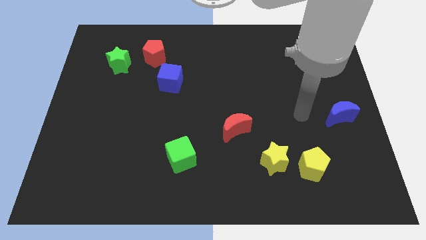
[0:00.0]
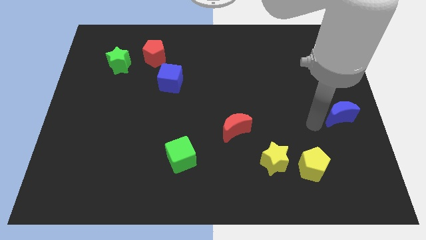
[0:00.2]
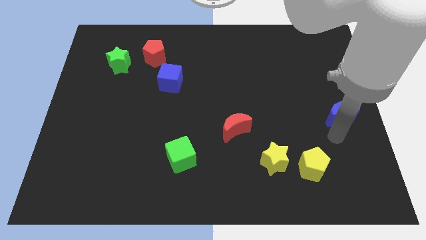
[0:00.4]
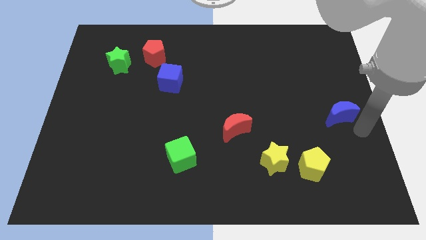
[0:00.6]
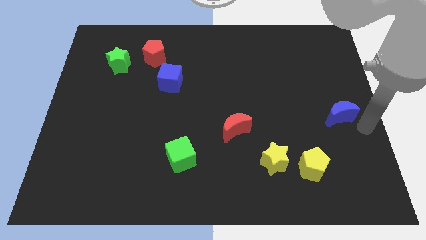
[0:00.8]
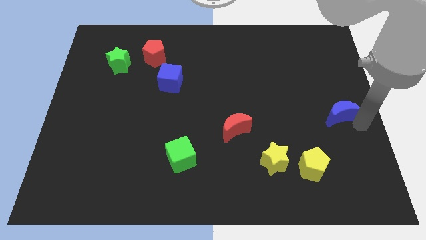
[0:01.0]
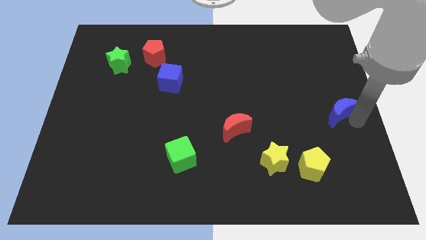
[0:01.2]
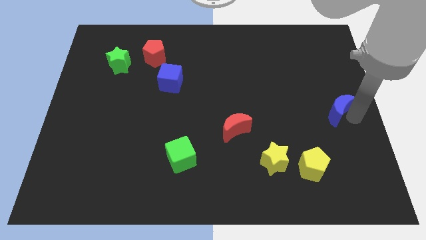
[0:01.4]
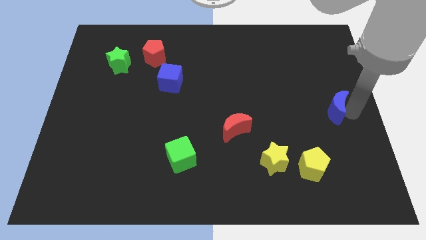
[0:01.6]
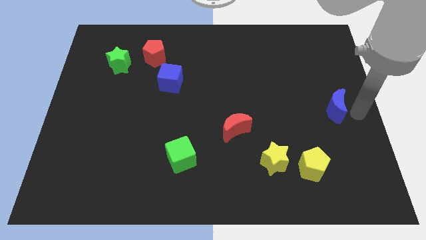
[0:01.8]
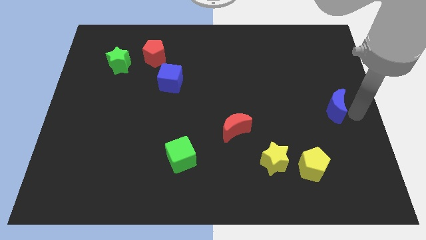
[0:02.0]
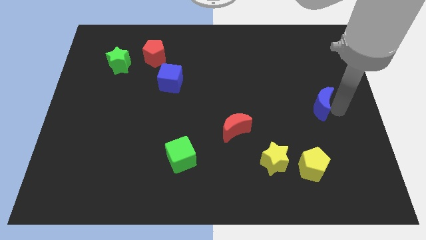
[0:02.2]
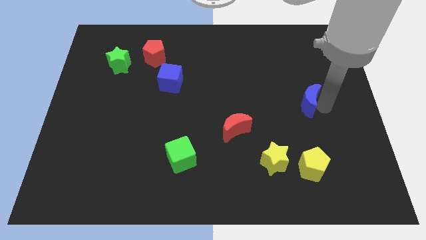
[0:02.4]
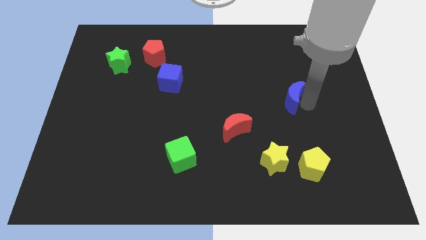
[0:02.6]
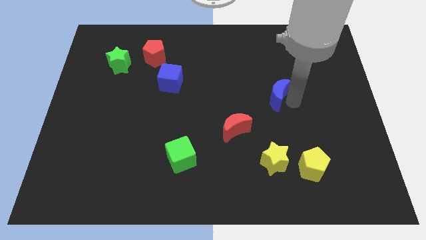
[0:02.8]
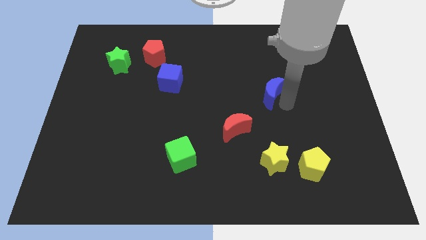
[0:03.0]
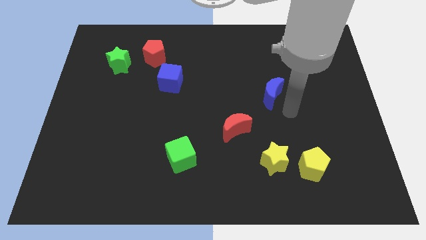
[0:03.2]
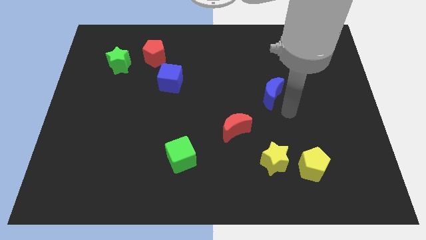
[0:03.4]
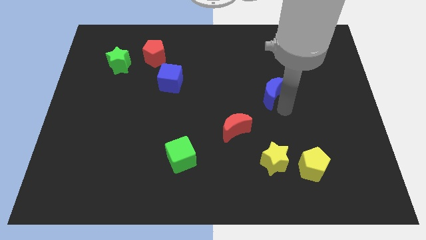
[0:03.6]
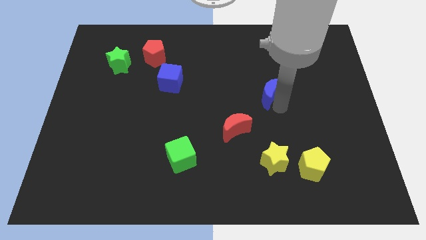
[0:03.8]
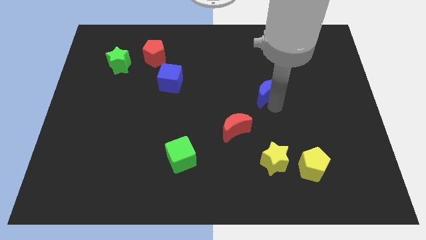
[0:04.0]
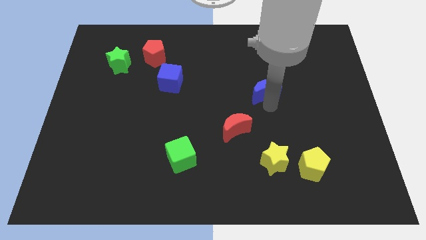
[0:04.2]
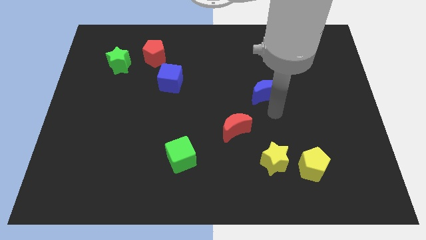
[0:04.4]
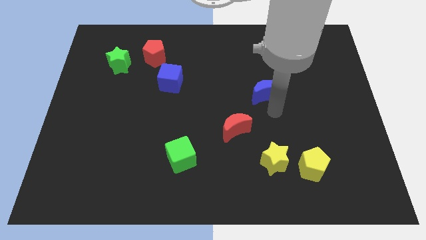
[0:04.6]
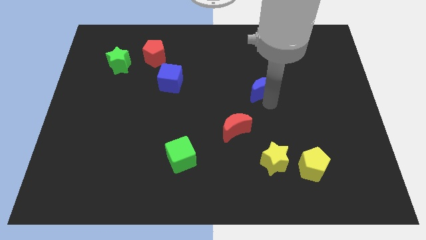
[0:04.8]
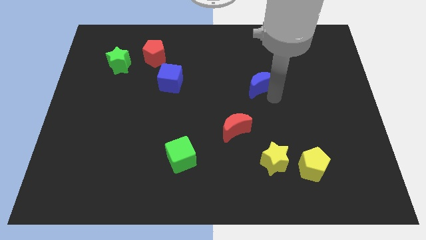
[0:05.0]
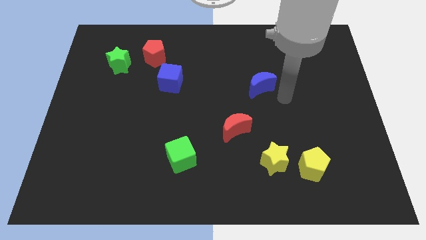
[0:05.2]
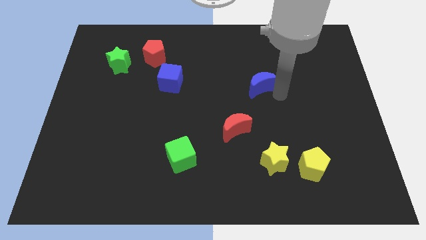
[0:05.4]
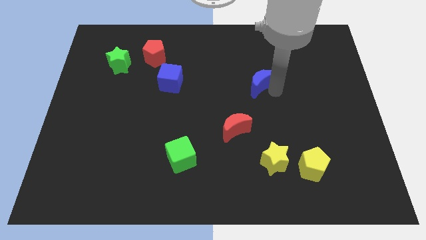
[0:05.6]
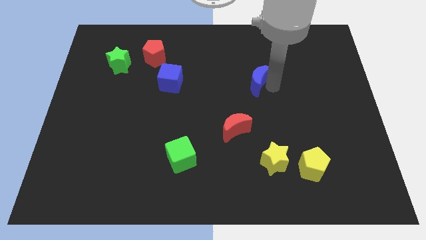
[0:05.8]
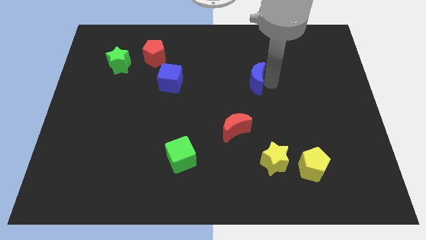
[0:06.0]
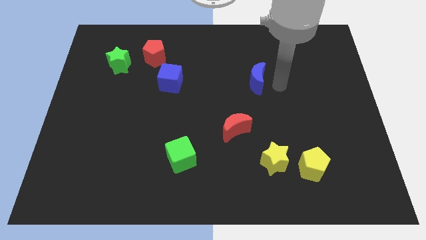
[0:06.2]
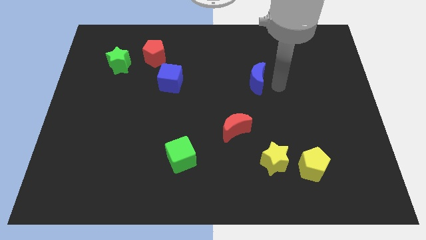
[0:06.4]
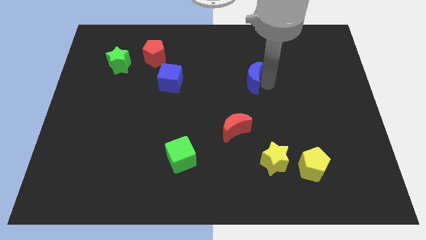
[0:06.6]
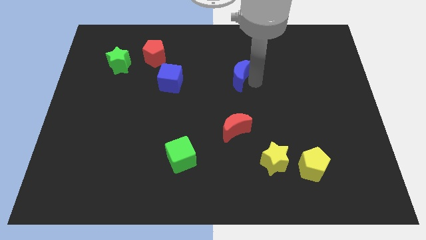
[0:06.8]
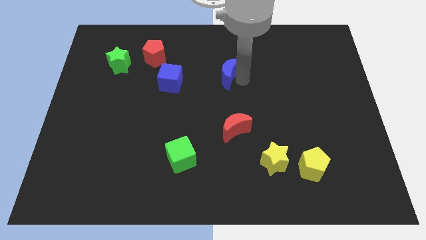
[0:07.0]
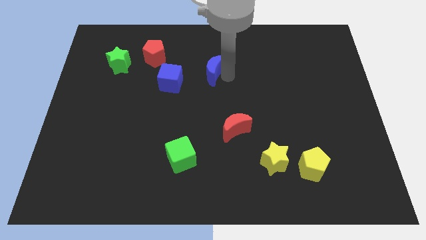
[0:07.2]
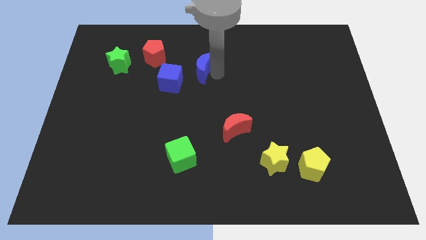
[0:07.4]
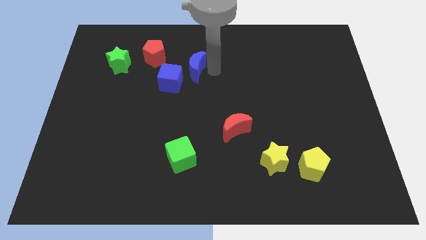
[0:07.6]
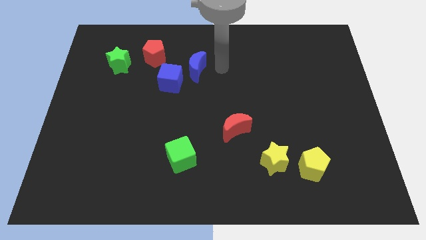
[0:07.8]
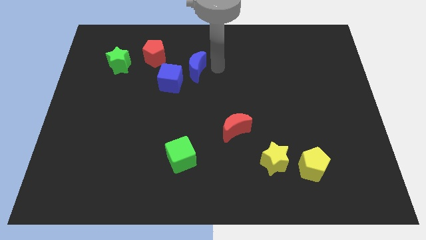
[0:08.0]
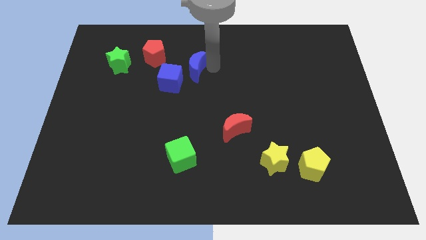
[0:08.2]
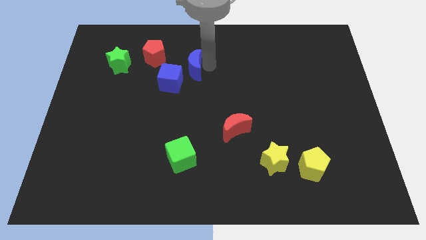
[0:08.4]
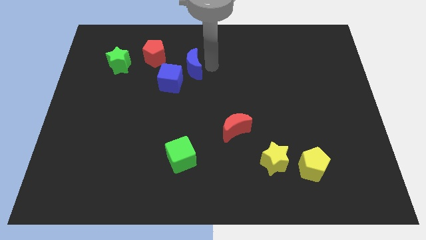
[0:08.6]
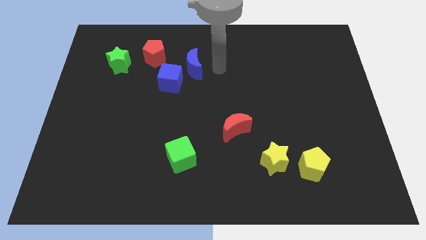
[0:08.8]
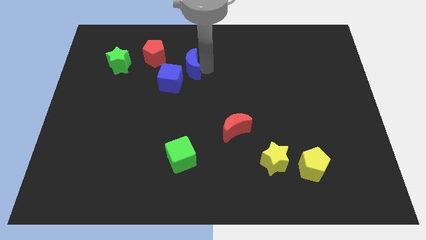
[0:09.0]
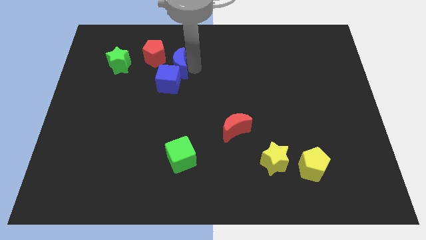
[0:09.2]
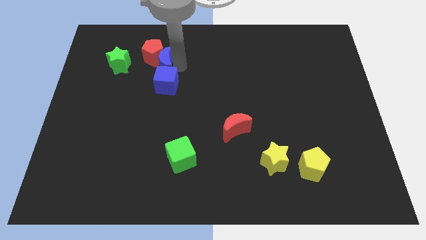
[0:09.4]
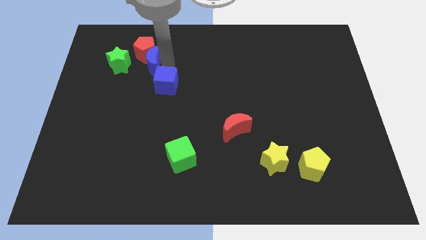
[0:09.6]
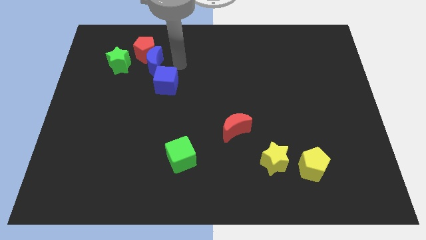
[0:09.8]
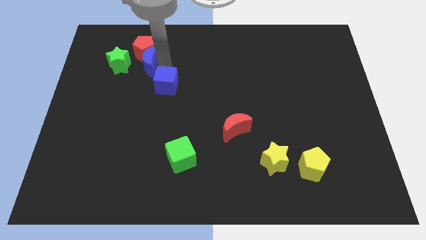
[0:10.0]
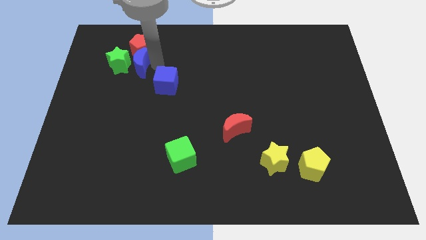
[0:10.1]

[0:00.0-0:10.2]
slide the blue moon close to the green star

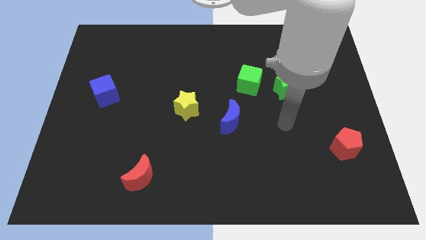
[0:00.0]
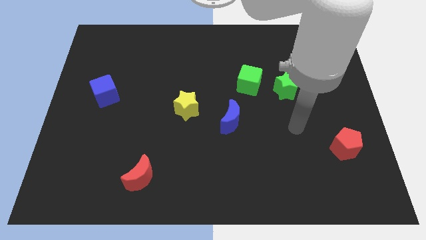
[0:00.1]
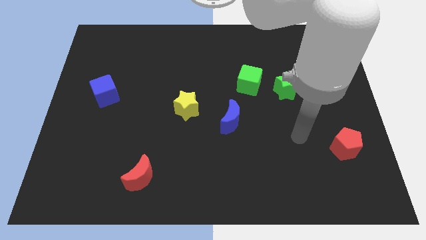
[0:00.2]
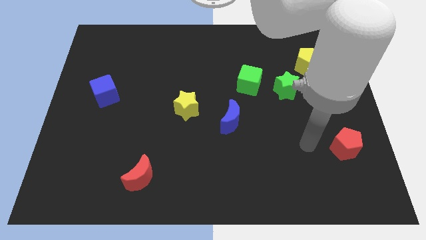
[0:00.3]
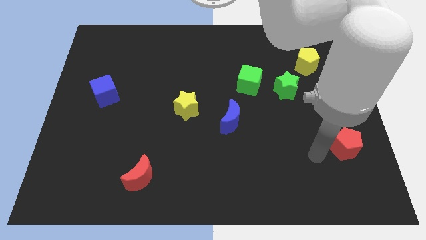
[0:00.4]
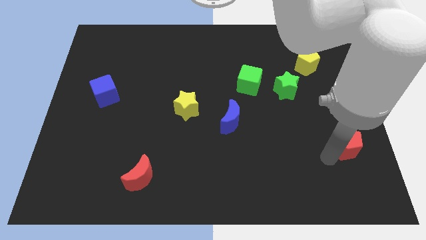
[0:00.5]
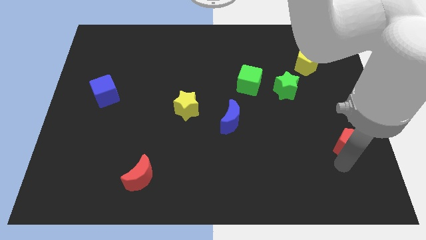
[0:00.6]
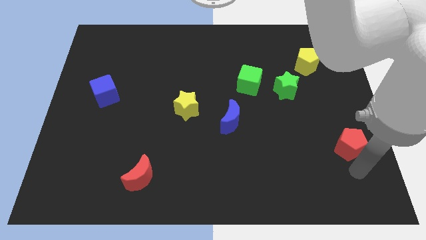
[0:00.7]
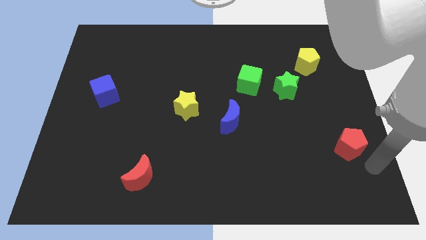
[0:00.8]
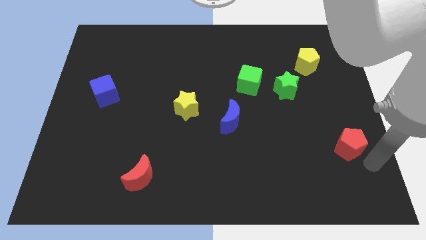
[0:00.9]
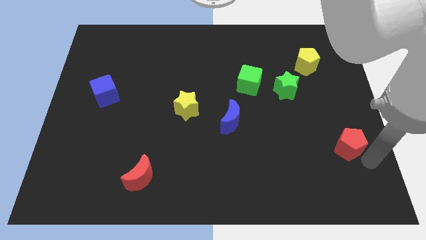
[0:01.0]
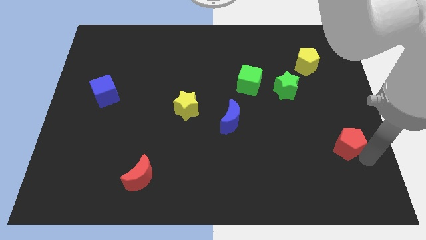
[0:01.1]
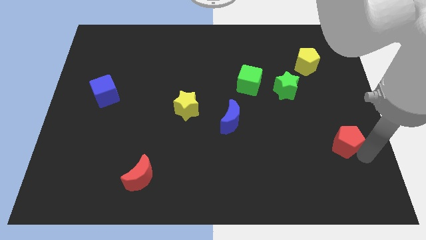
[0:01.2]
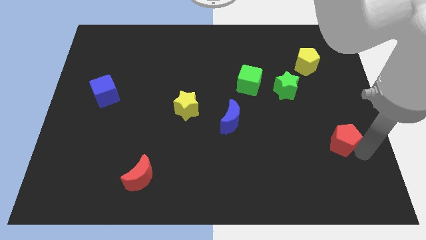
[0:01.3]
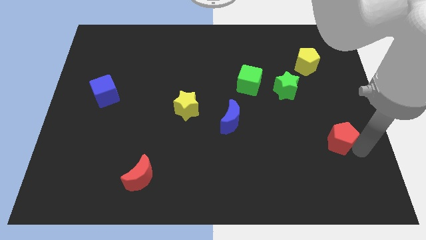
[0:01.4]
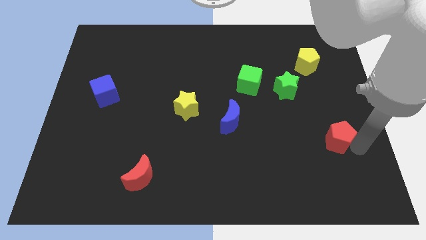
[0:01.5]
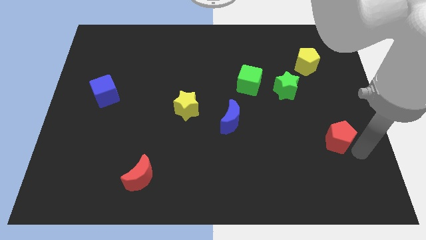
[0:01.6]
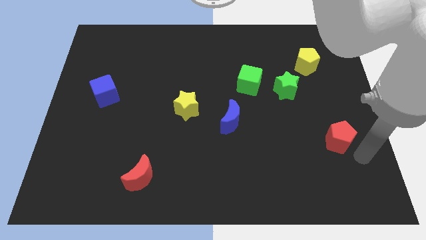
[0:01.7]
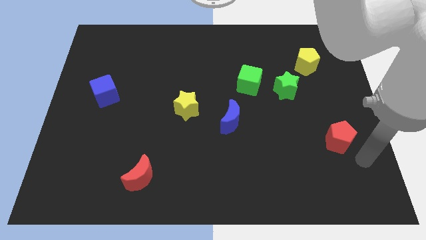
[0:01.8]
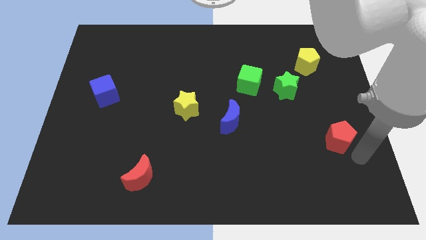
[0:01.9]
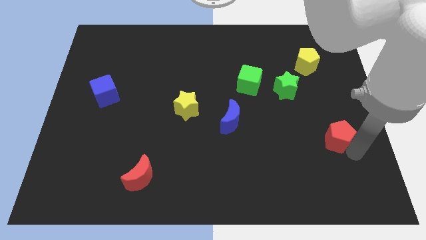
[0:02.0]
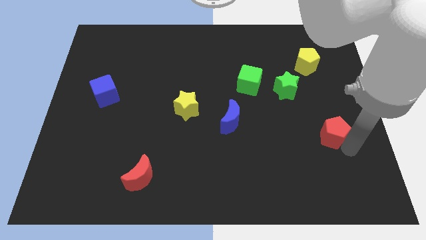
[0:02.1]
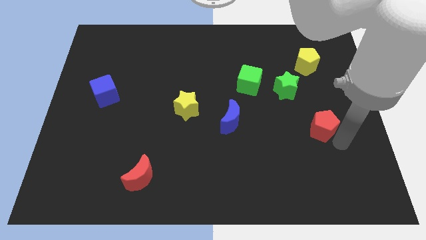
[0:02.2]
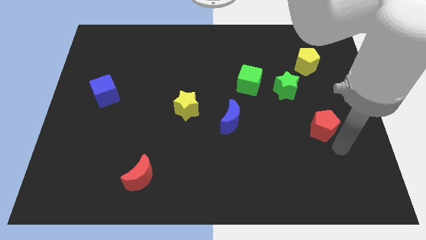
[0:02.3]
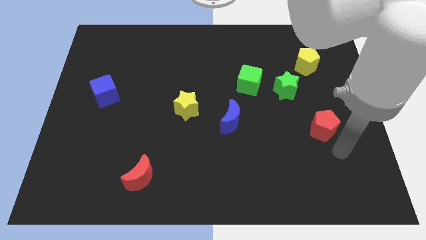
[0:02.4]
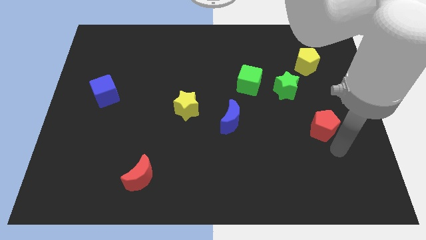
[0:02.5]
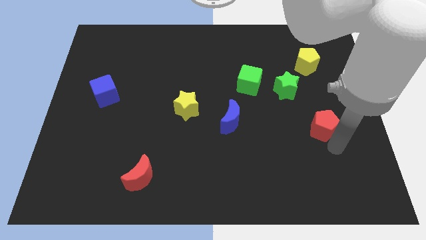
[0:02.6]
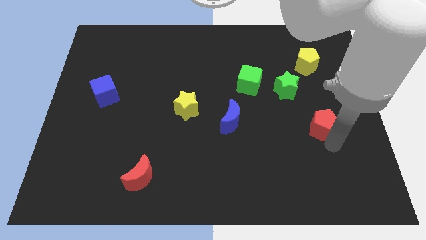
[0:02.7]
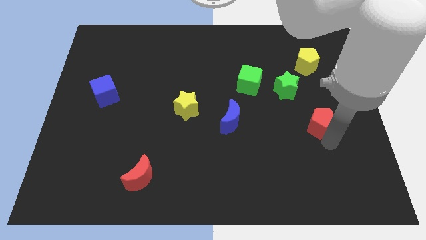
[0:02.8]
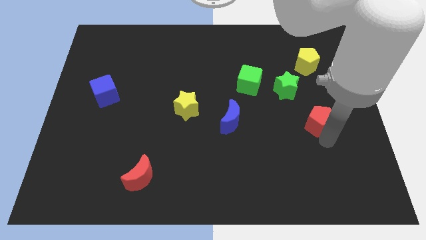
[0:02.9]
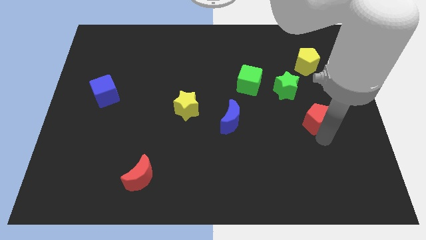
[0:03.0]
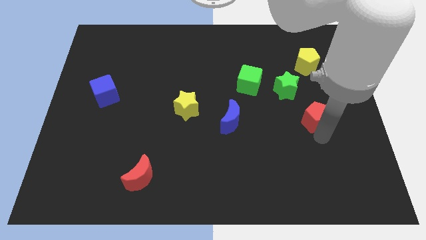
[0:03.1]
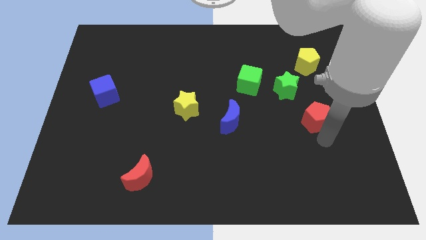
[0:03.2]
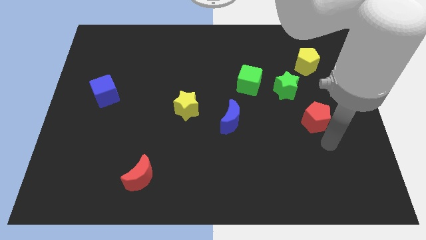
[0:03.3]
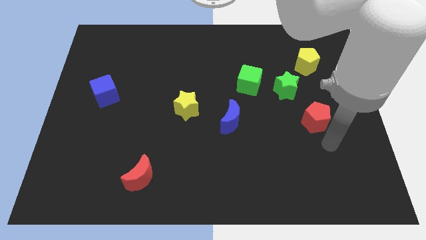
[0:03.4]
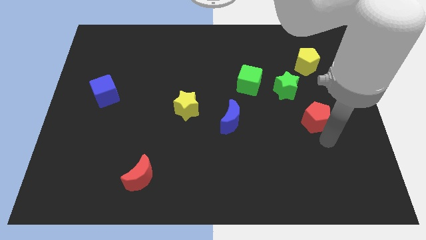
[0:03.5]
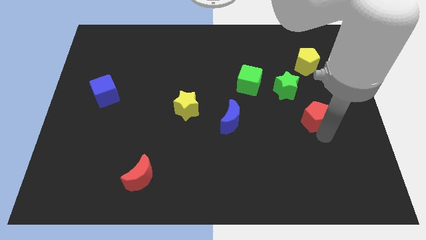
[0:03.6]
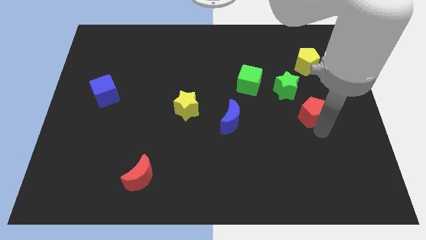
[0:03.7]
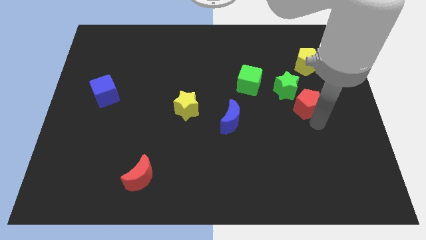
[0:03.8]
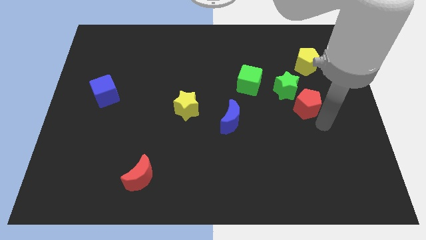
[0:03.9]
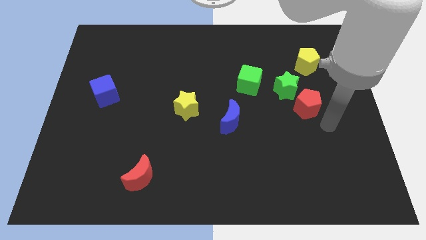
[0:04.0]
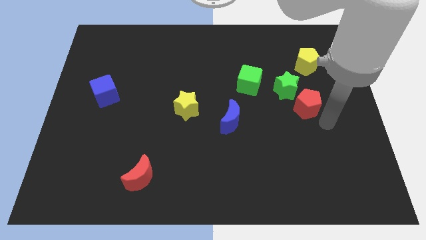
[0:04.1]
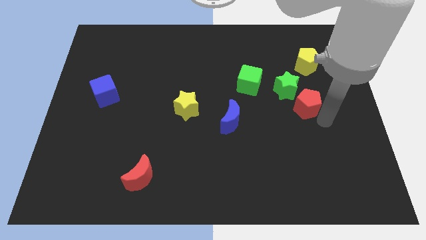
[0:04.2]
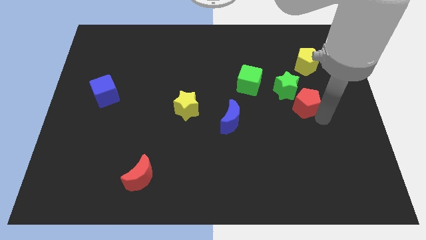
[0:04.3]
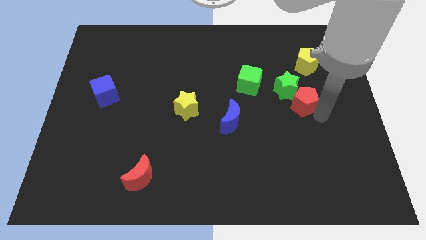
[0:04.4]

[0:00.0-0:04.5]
slide the red pentagon close to the green star
